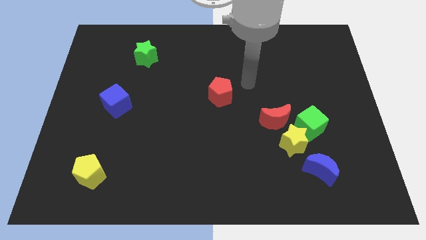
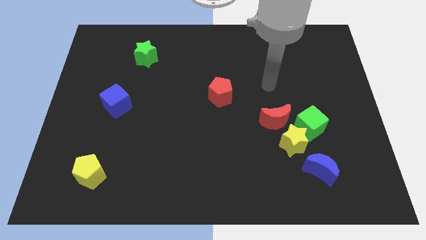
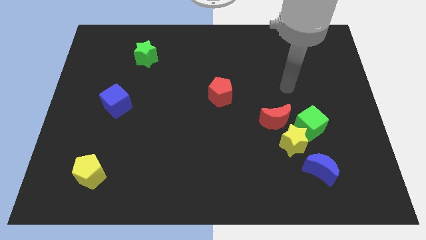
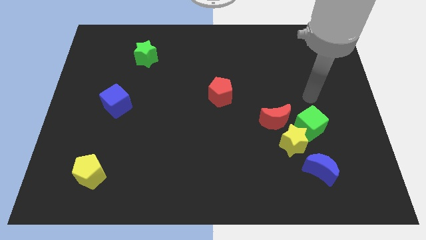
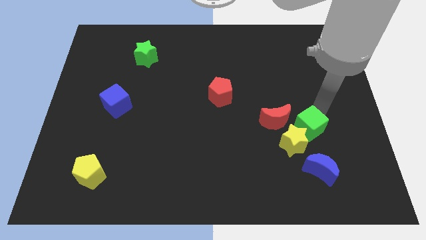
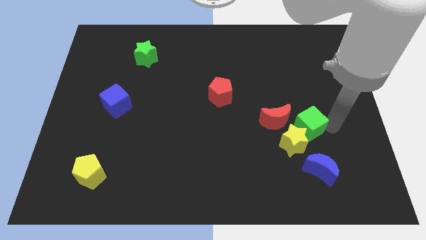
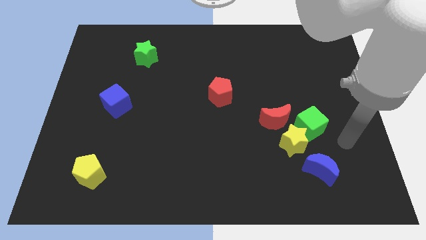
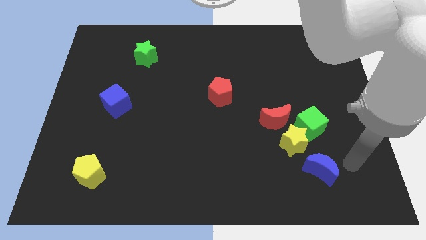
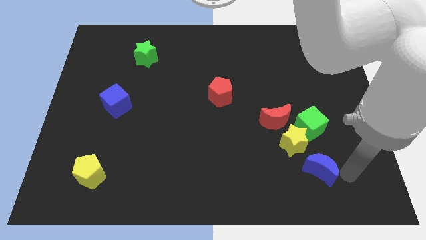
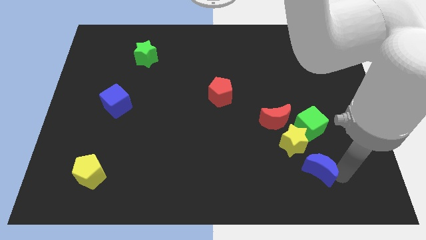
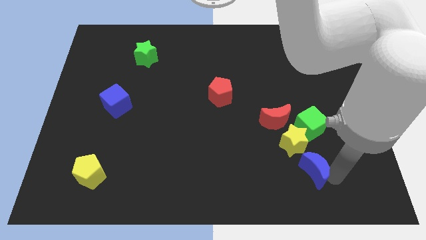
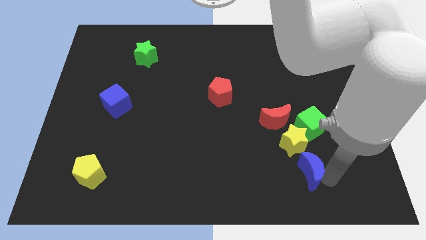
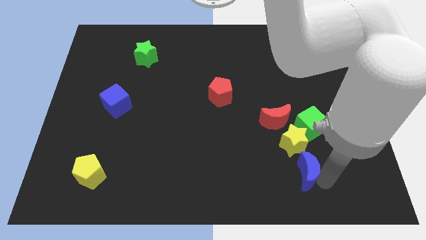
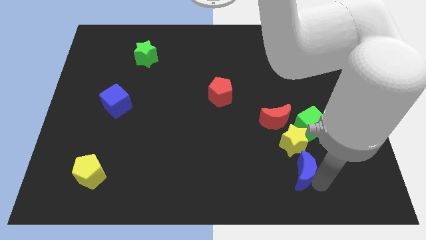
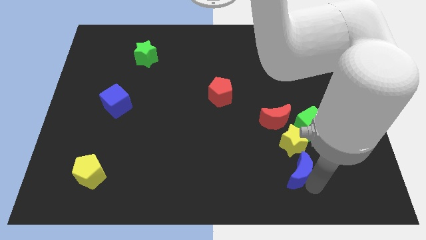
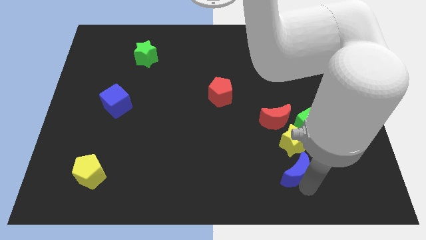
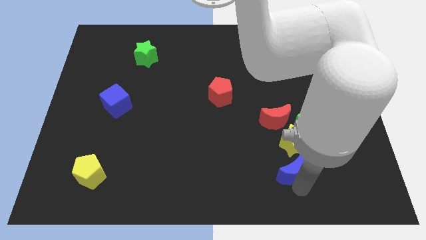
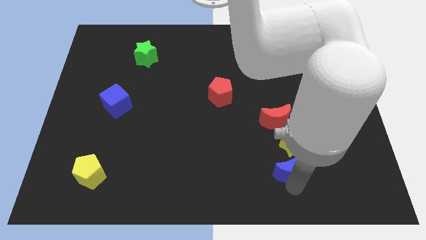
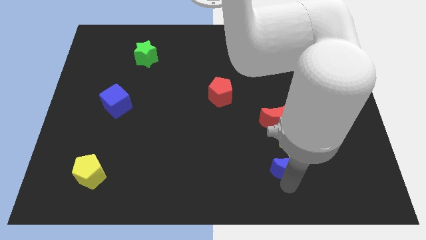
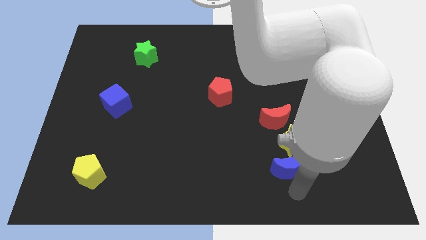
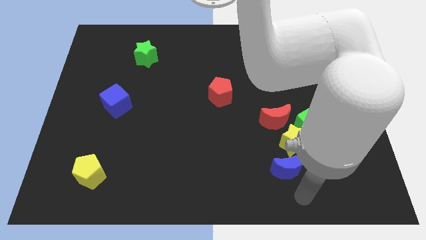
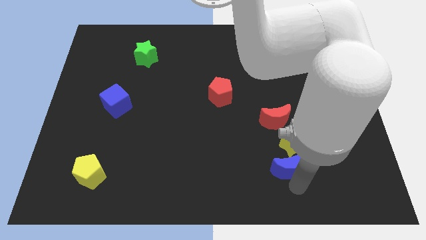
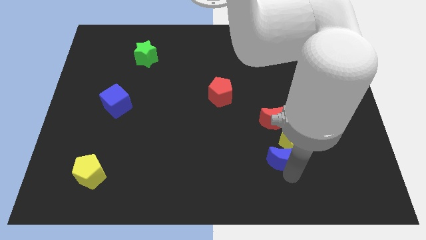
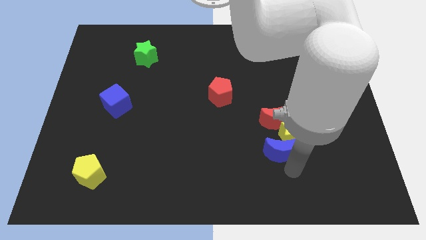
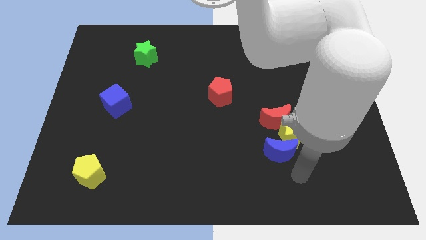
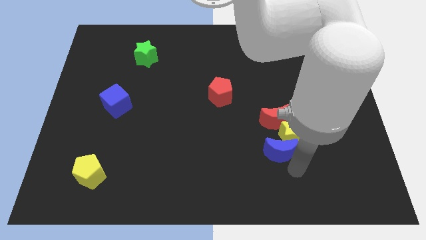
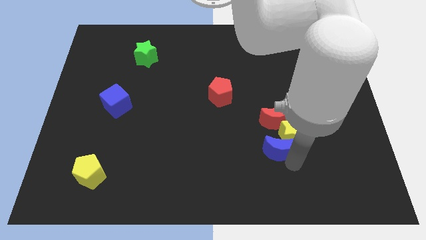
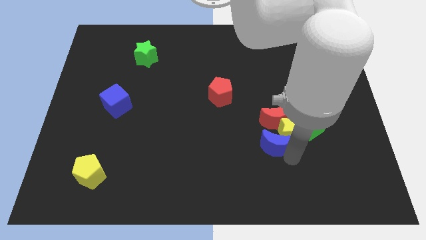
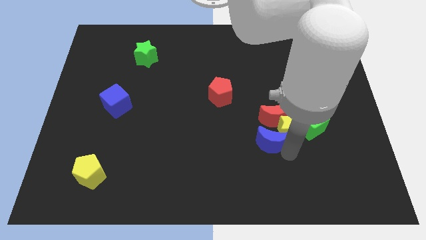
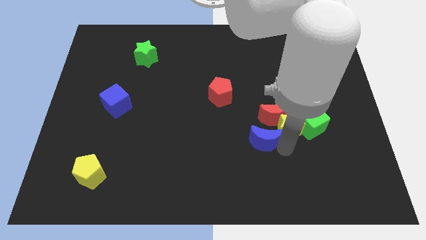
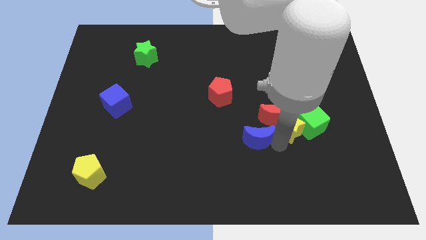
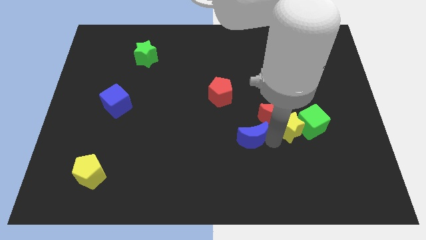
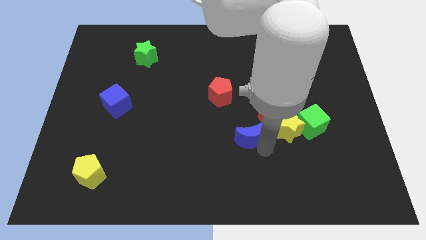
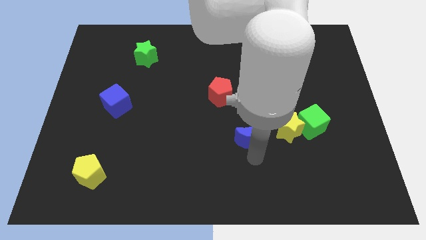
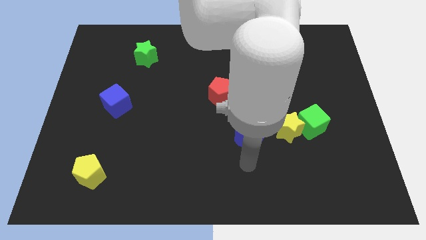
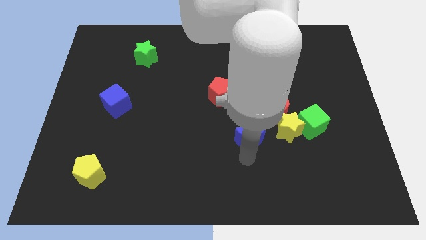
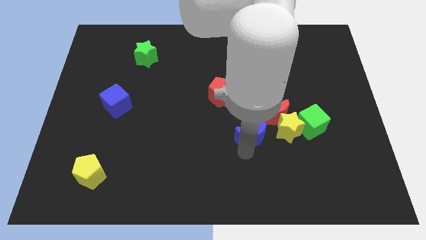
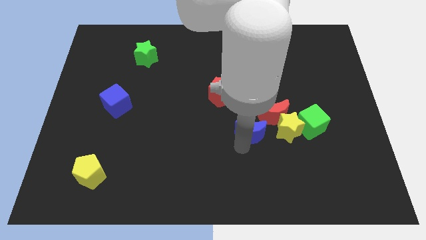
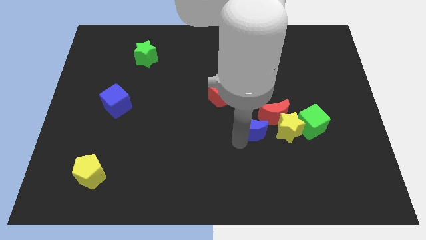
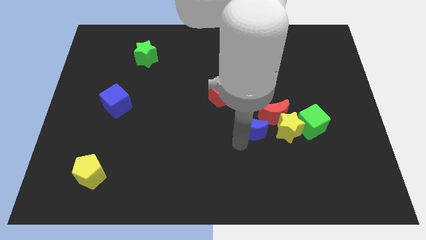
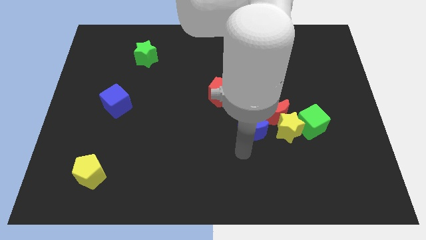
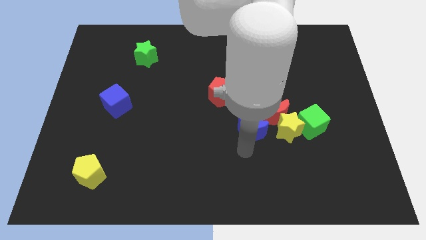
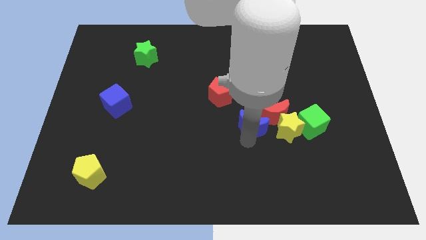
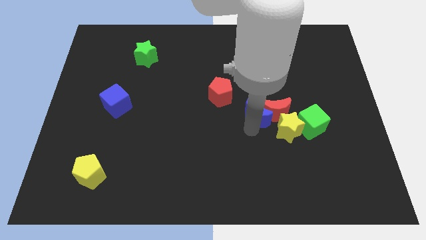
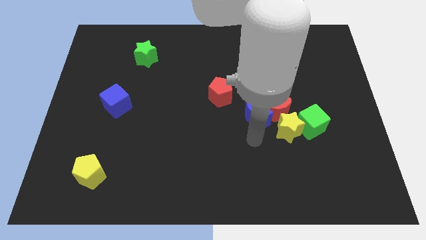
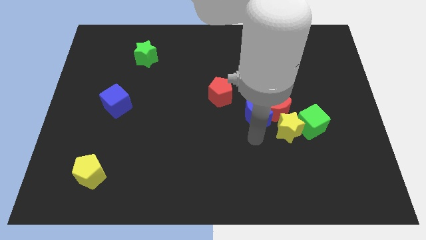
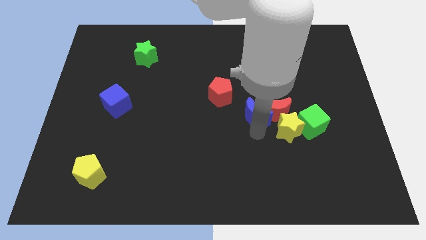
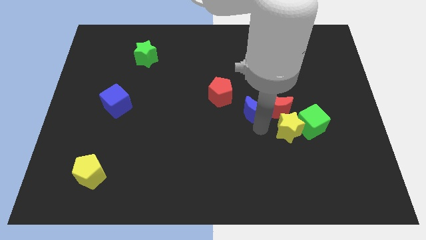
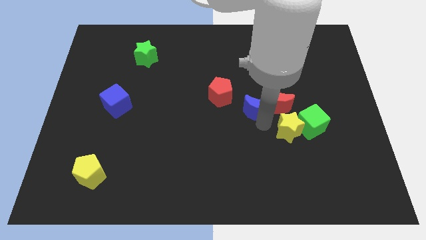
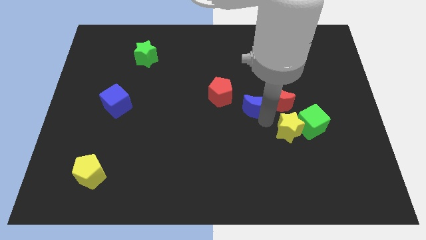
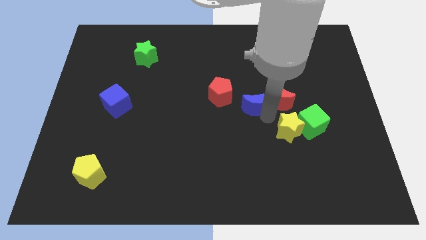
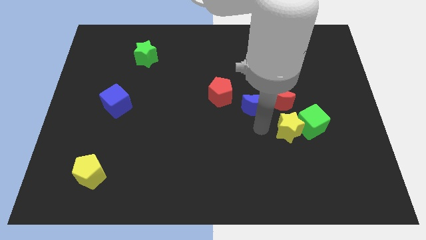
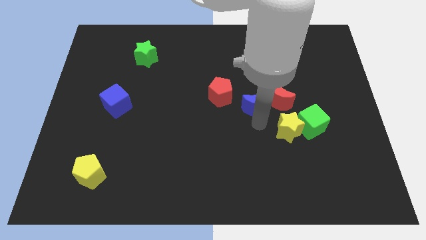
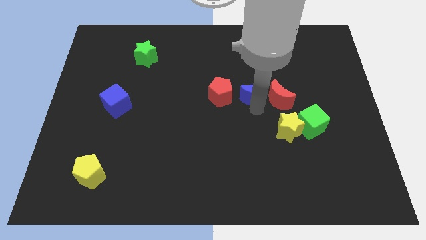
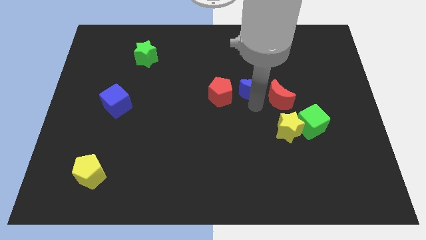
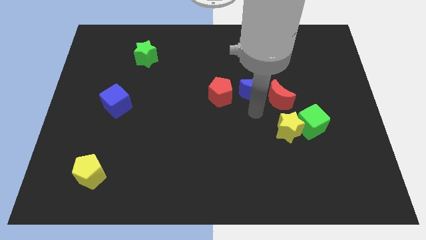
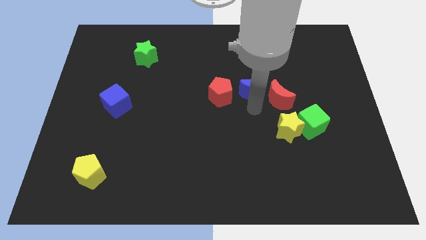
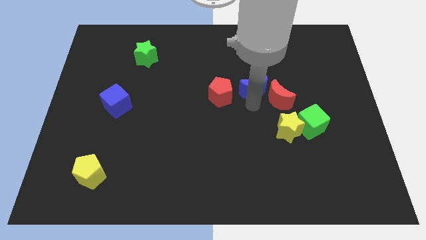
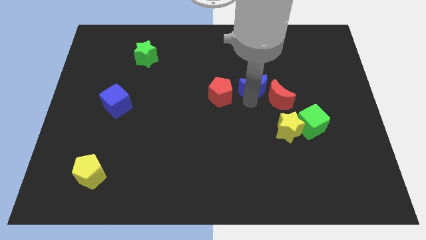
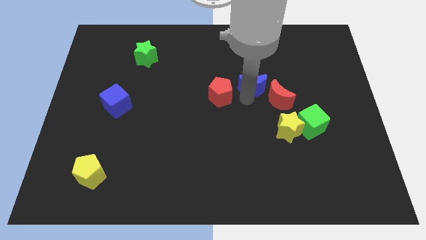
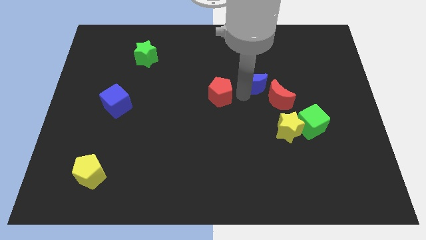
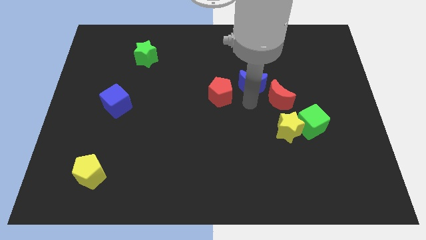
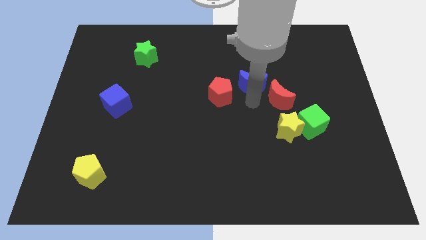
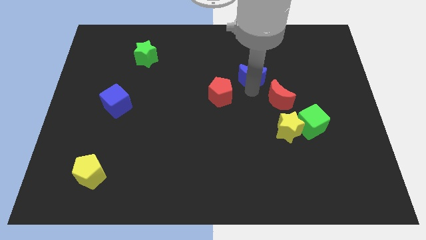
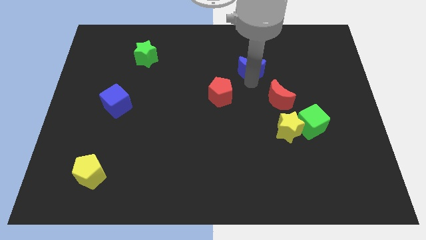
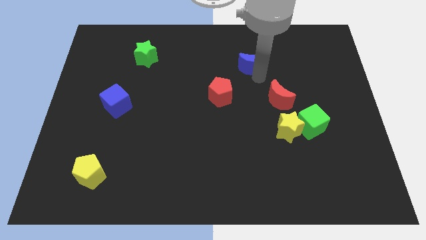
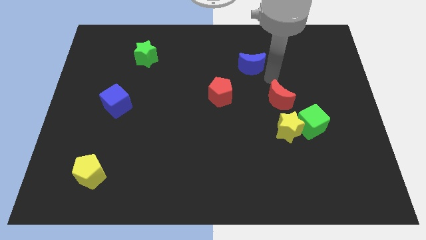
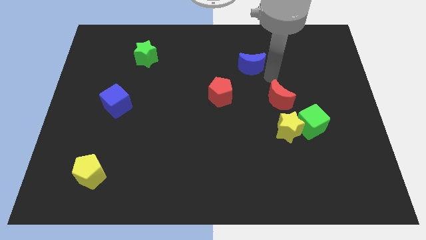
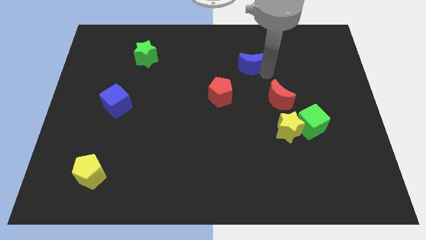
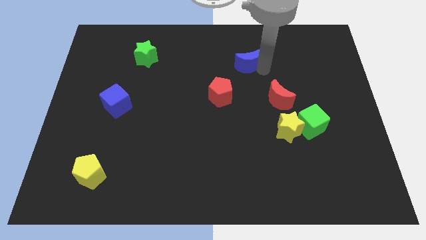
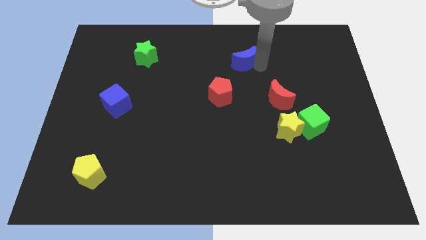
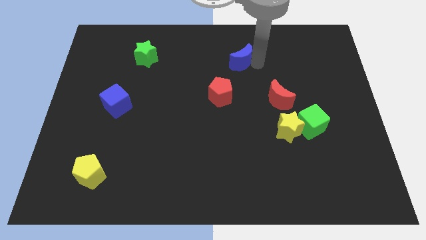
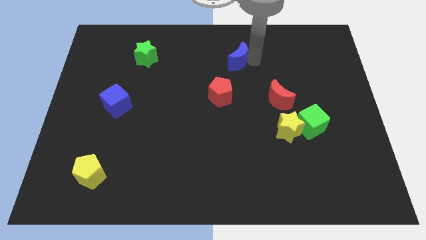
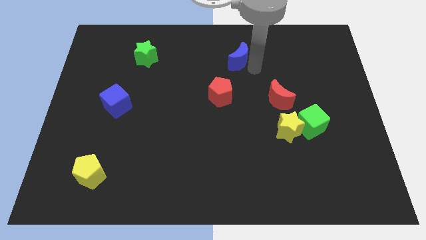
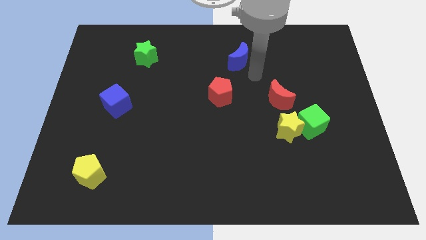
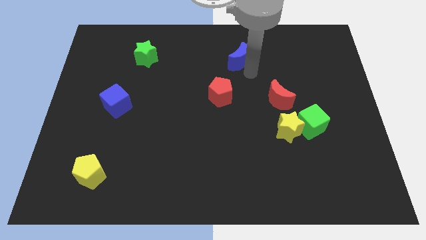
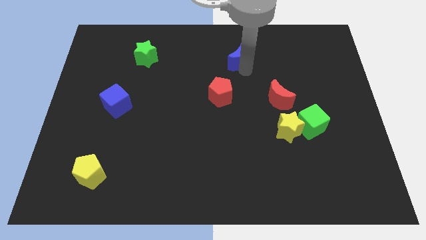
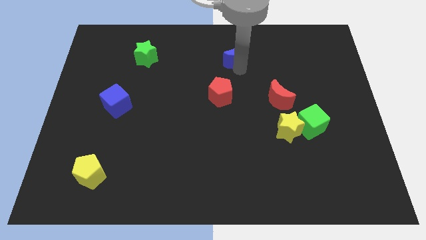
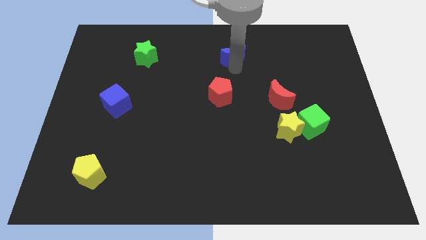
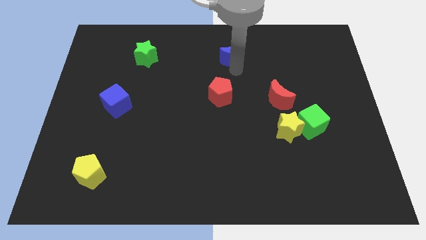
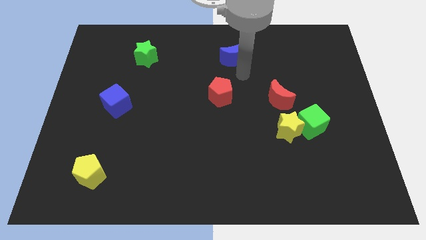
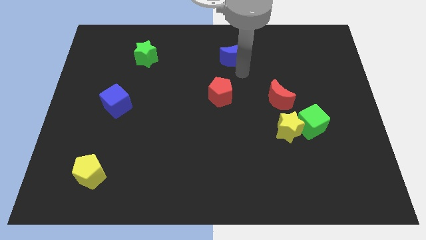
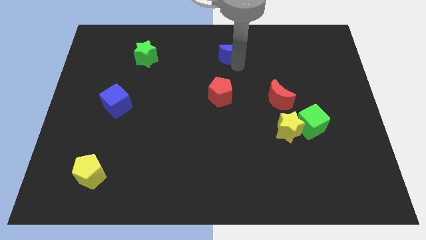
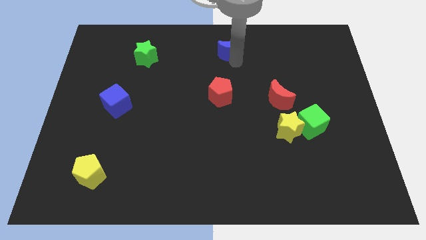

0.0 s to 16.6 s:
move the blue moon to the towards your base
